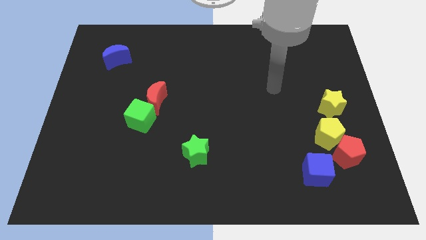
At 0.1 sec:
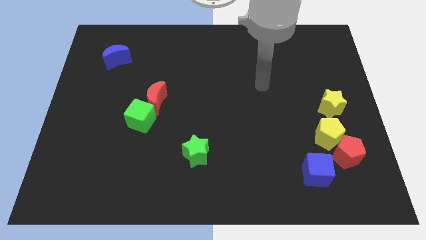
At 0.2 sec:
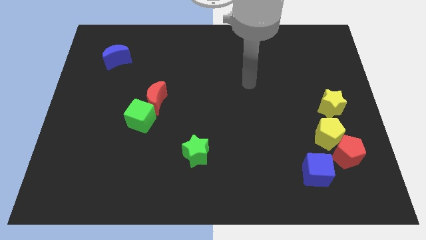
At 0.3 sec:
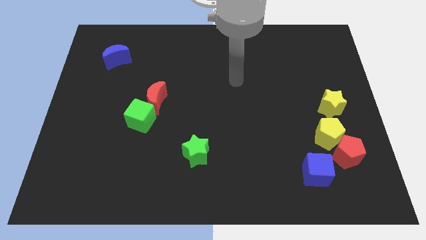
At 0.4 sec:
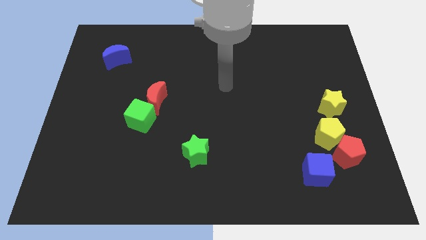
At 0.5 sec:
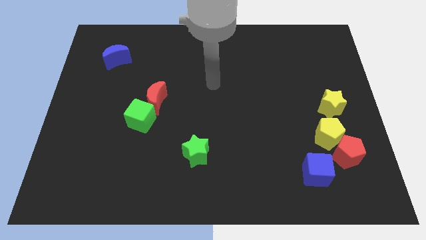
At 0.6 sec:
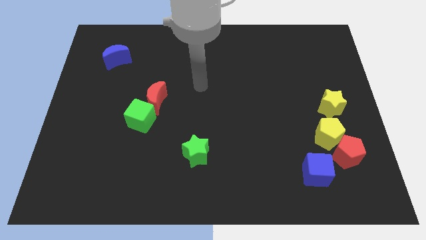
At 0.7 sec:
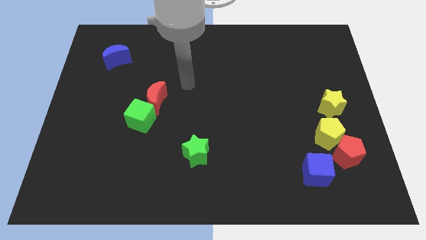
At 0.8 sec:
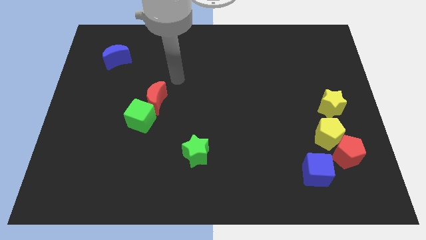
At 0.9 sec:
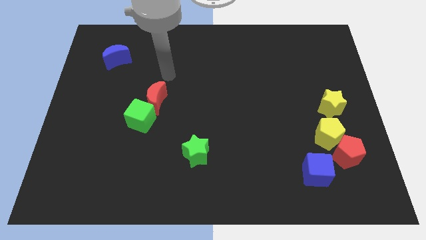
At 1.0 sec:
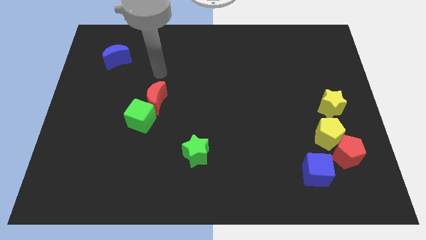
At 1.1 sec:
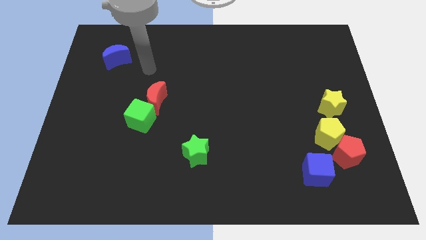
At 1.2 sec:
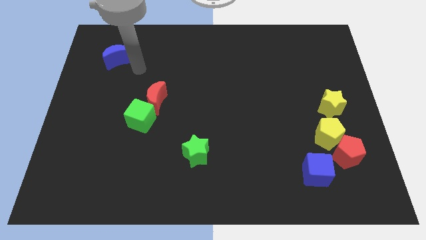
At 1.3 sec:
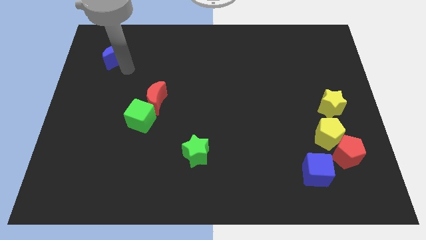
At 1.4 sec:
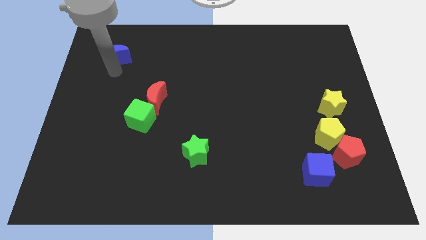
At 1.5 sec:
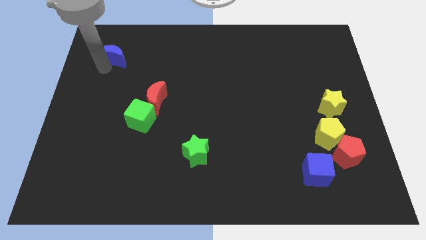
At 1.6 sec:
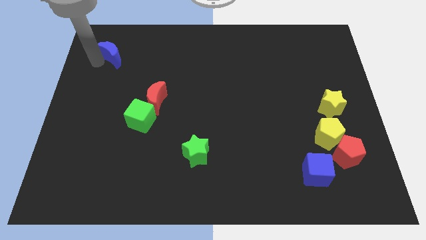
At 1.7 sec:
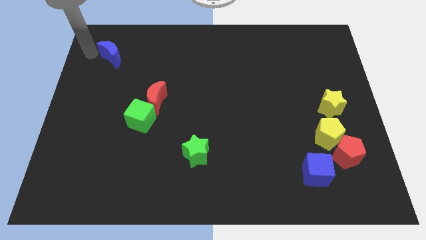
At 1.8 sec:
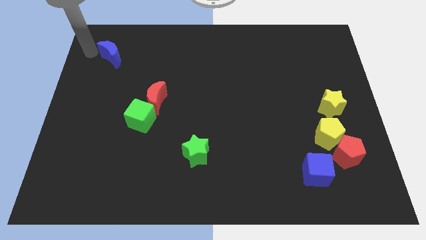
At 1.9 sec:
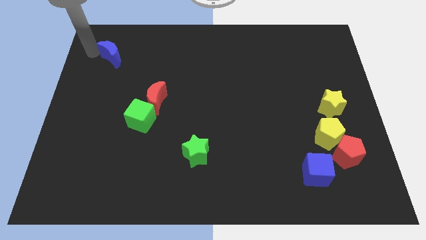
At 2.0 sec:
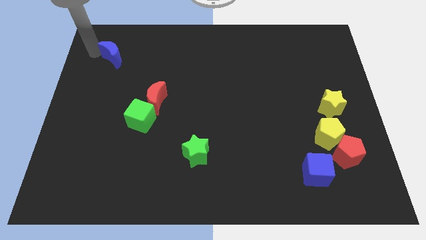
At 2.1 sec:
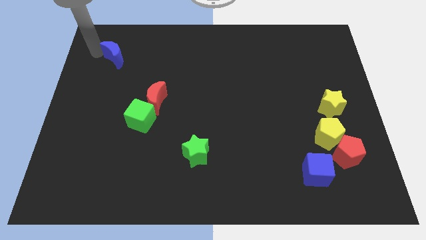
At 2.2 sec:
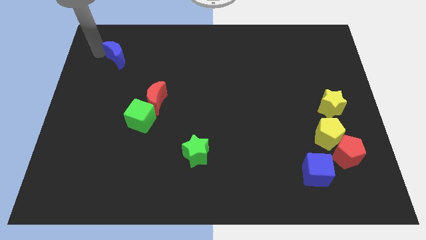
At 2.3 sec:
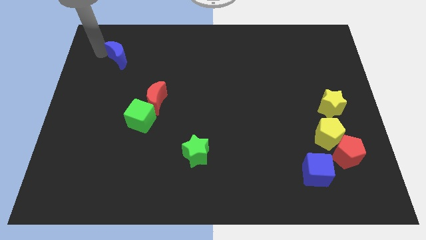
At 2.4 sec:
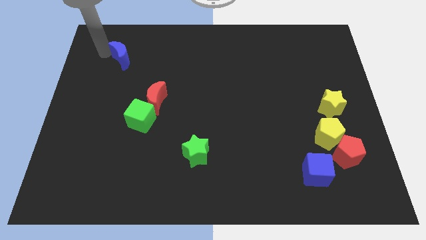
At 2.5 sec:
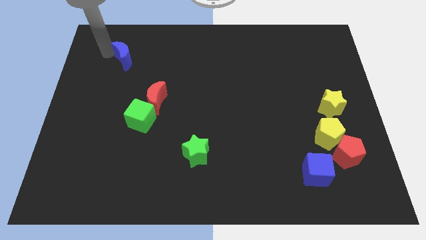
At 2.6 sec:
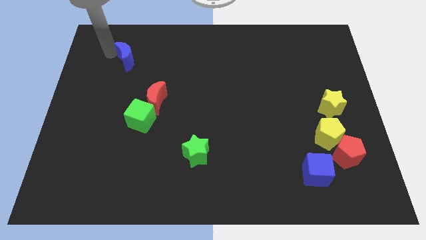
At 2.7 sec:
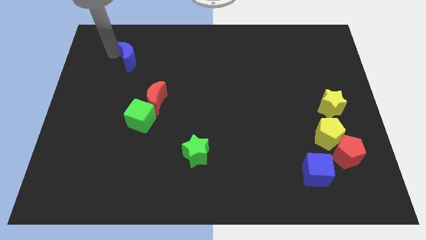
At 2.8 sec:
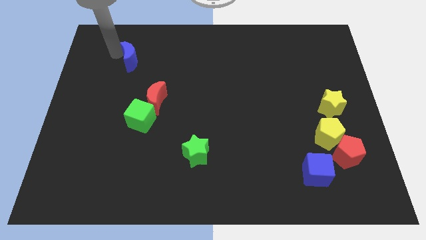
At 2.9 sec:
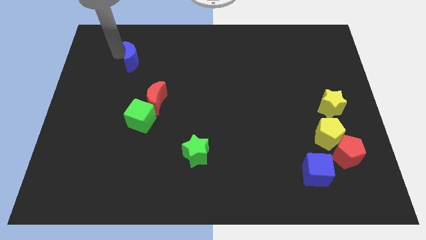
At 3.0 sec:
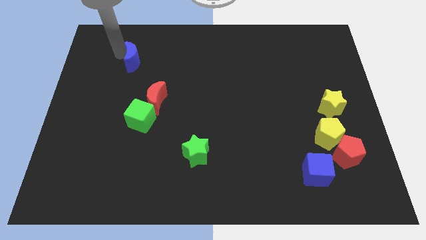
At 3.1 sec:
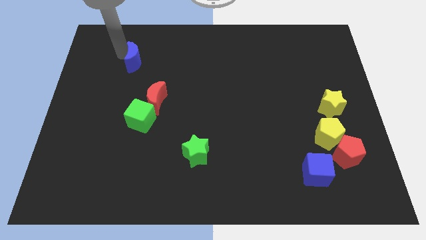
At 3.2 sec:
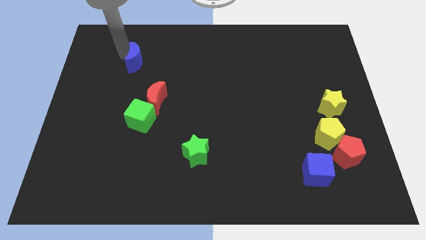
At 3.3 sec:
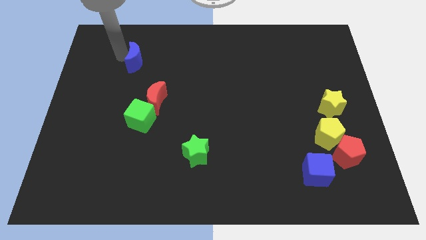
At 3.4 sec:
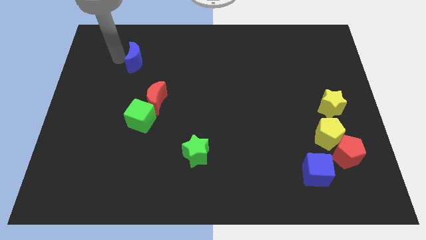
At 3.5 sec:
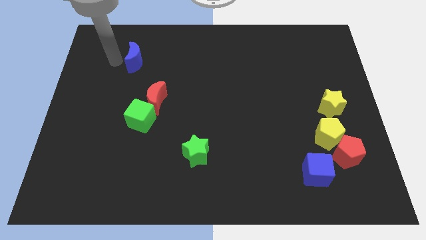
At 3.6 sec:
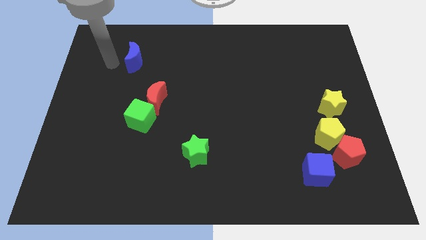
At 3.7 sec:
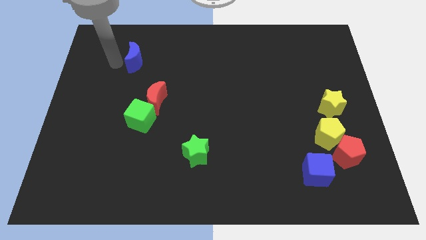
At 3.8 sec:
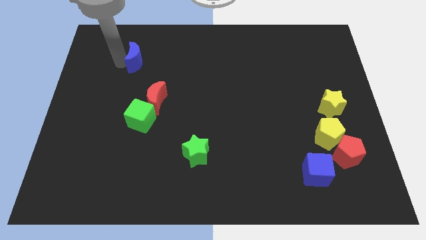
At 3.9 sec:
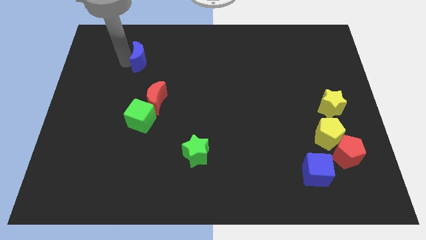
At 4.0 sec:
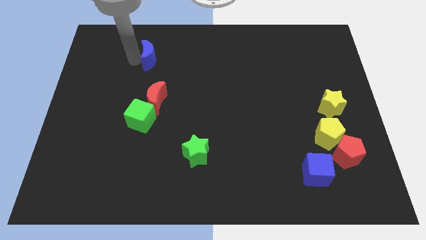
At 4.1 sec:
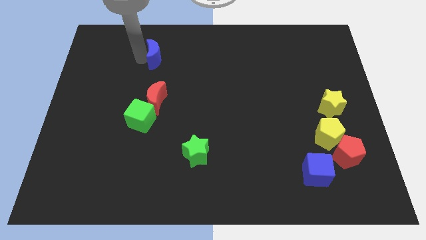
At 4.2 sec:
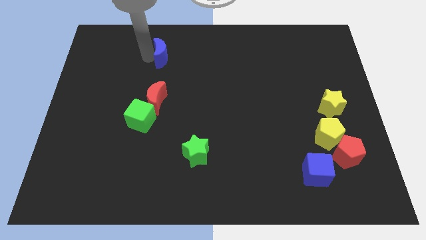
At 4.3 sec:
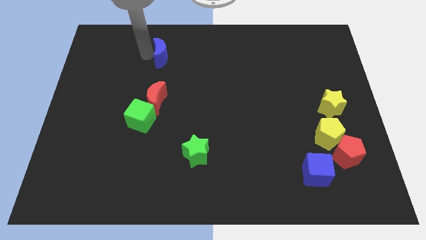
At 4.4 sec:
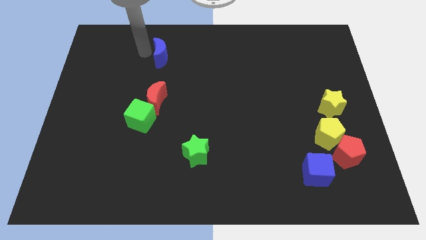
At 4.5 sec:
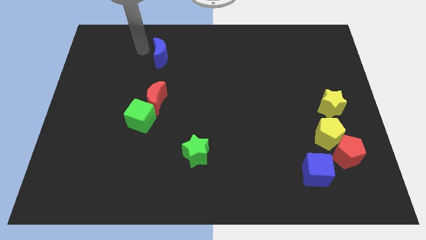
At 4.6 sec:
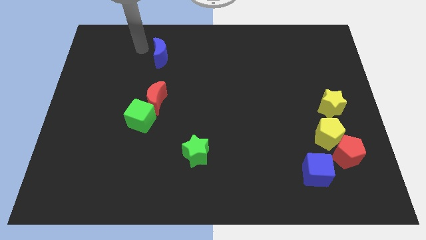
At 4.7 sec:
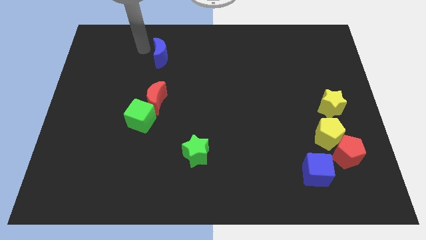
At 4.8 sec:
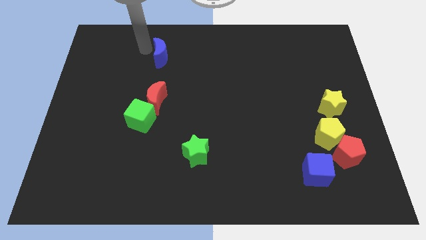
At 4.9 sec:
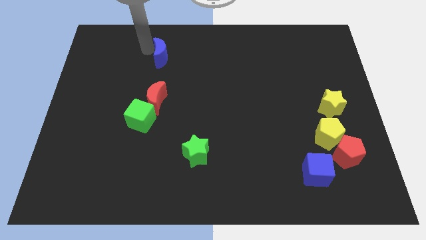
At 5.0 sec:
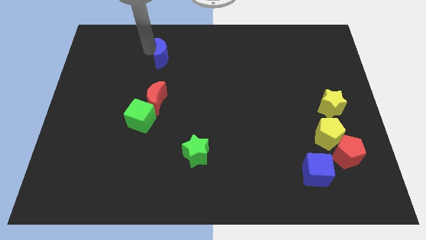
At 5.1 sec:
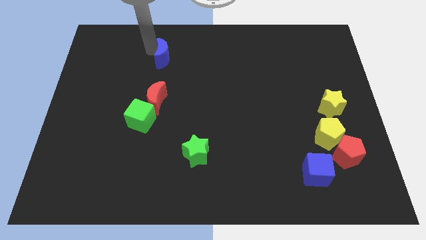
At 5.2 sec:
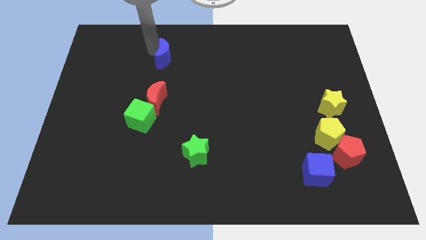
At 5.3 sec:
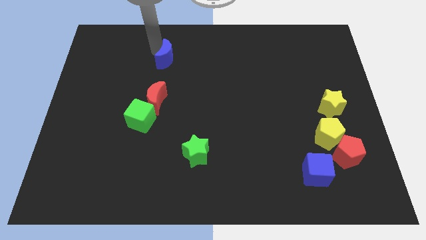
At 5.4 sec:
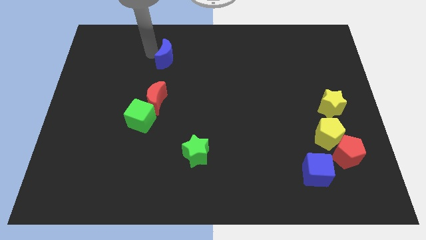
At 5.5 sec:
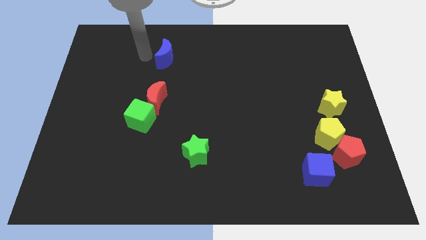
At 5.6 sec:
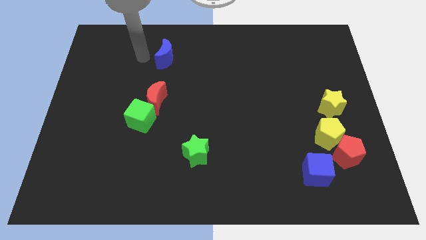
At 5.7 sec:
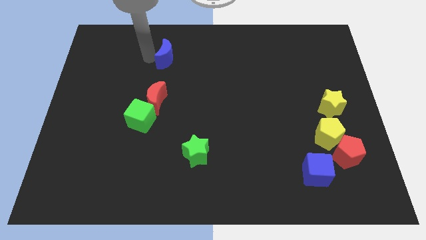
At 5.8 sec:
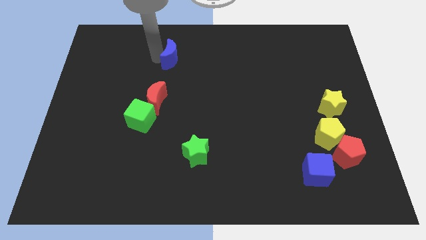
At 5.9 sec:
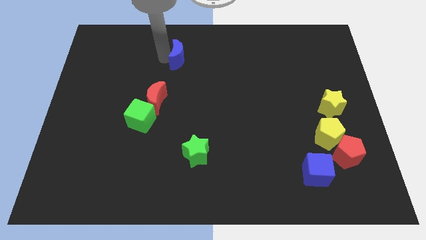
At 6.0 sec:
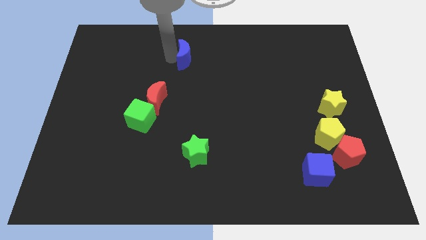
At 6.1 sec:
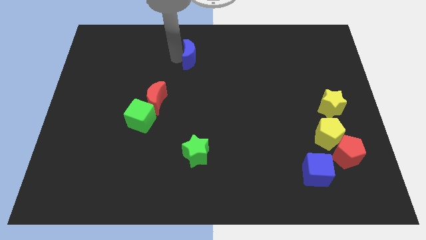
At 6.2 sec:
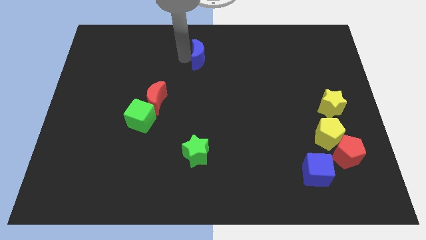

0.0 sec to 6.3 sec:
slide the blue moon right

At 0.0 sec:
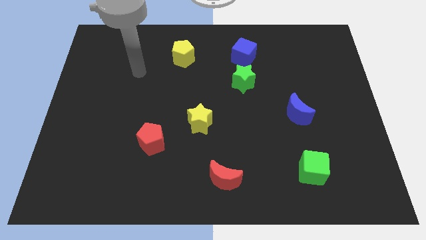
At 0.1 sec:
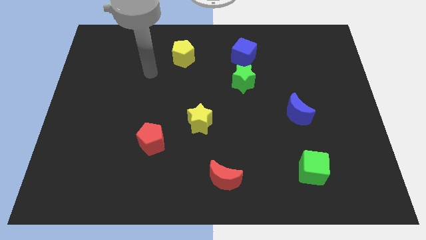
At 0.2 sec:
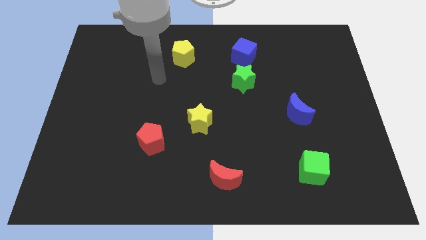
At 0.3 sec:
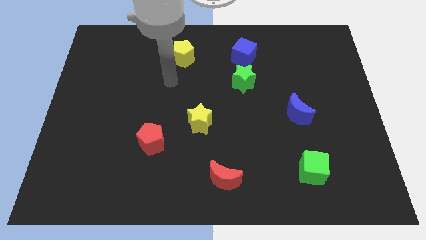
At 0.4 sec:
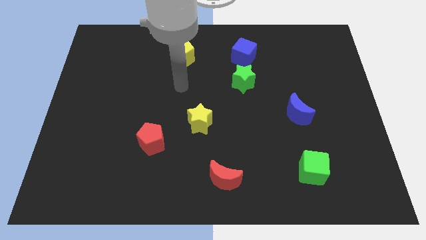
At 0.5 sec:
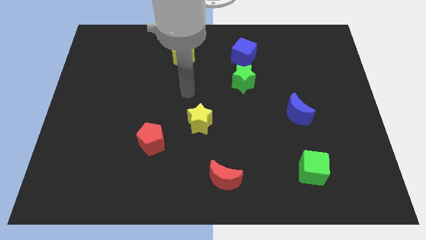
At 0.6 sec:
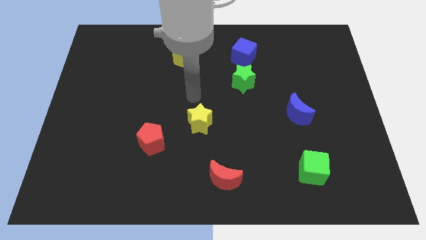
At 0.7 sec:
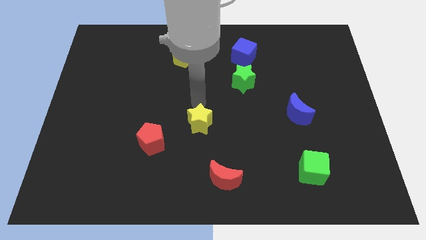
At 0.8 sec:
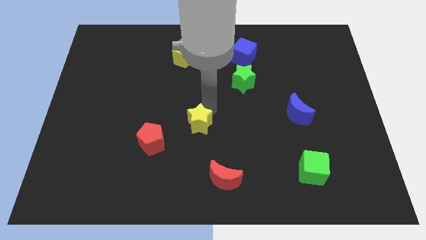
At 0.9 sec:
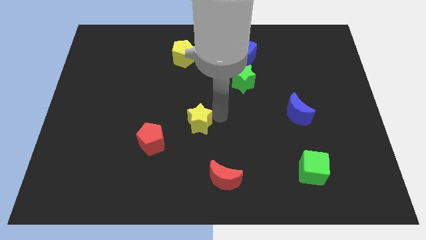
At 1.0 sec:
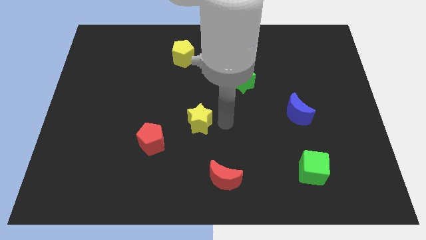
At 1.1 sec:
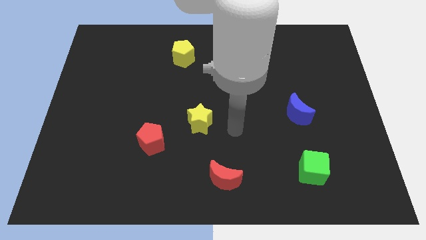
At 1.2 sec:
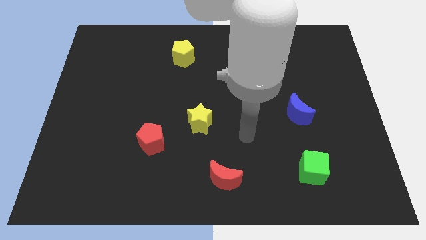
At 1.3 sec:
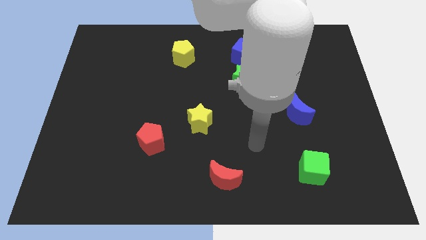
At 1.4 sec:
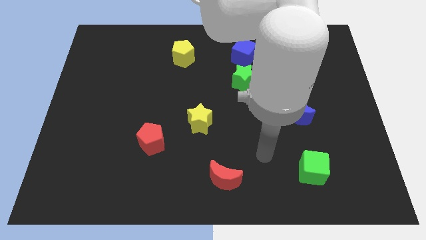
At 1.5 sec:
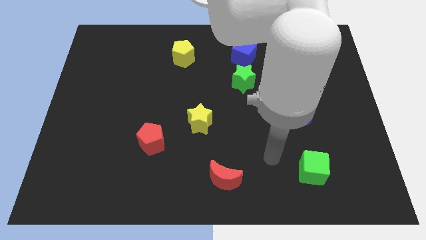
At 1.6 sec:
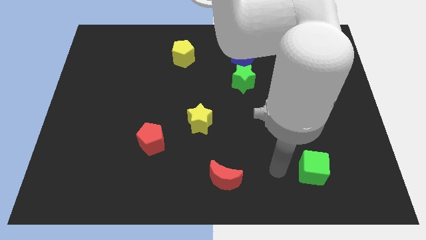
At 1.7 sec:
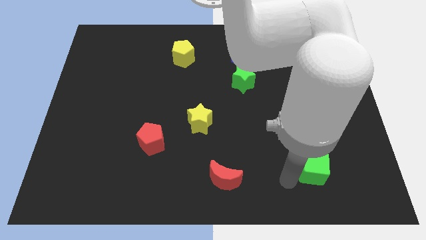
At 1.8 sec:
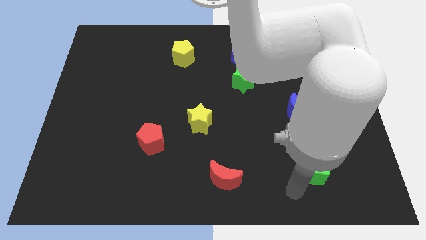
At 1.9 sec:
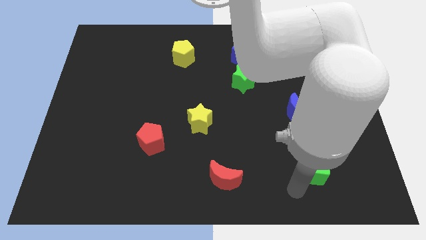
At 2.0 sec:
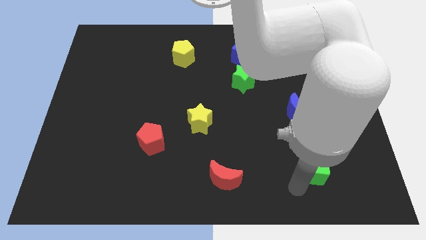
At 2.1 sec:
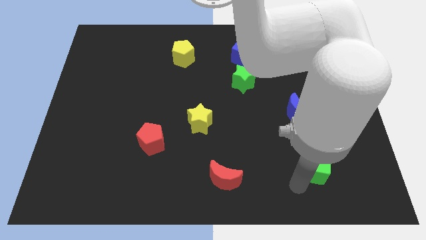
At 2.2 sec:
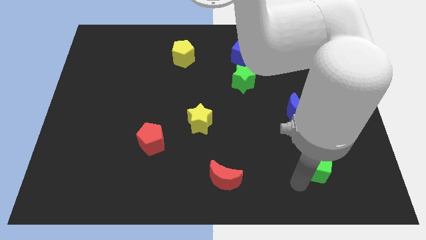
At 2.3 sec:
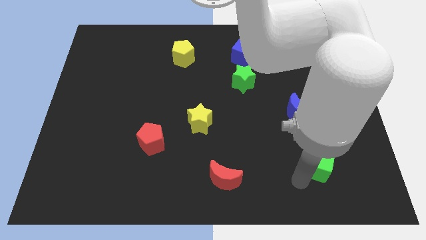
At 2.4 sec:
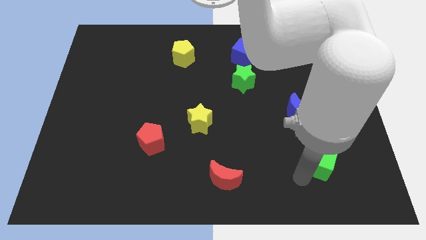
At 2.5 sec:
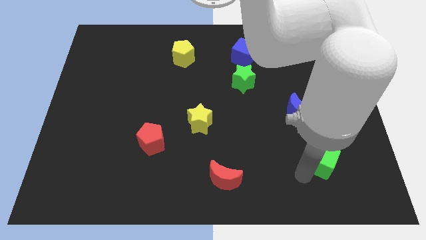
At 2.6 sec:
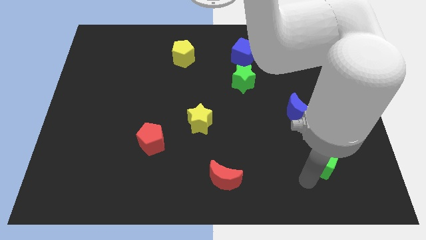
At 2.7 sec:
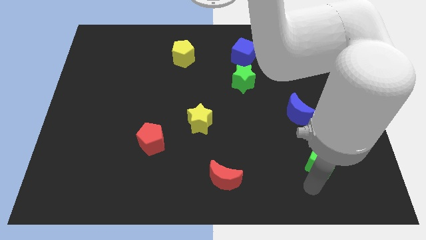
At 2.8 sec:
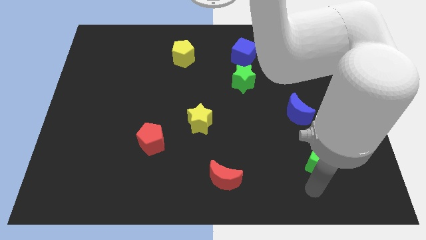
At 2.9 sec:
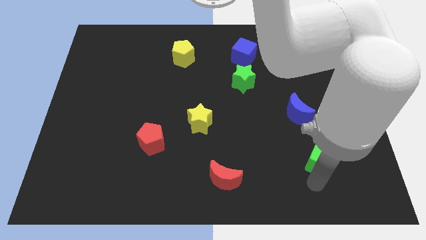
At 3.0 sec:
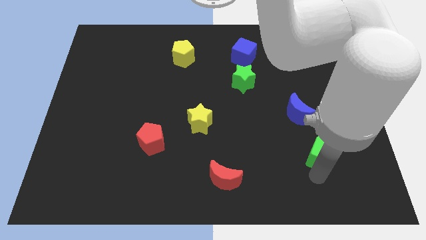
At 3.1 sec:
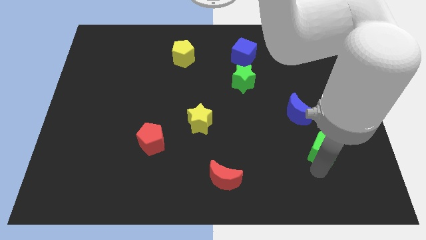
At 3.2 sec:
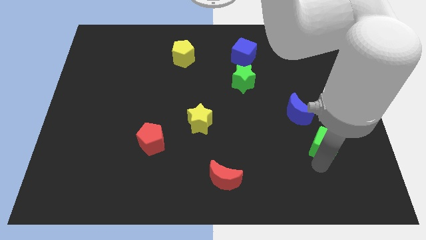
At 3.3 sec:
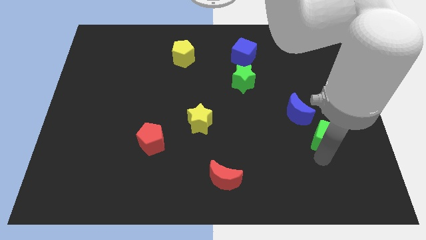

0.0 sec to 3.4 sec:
push the green cube upwards a little bit
